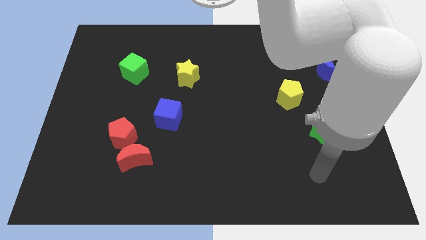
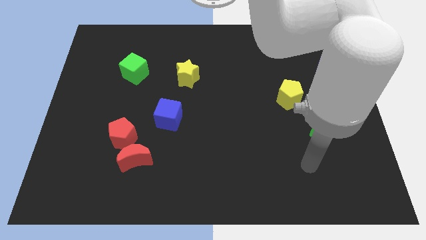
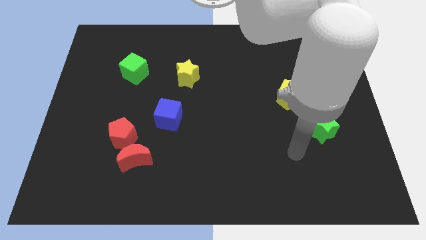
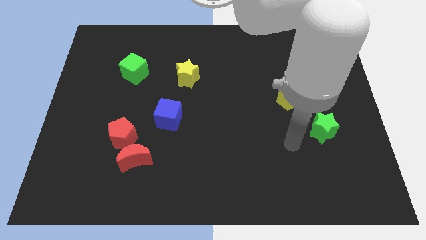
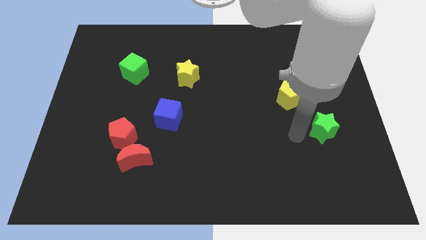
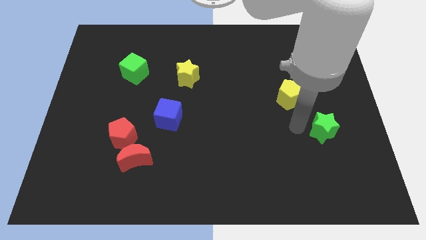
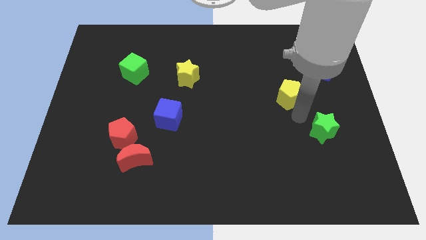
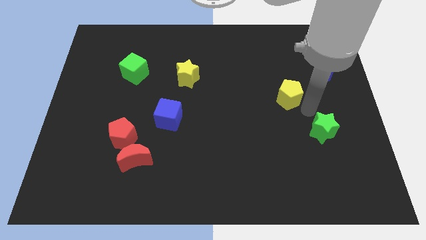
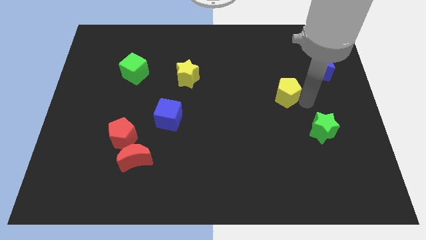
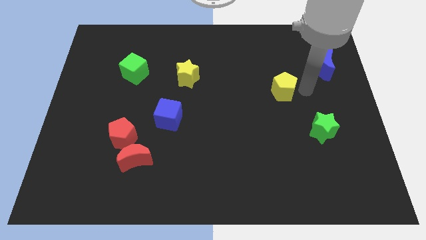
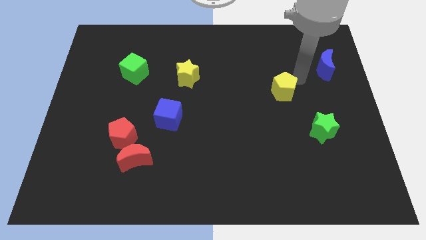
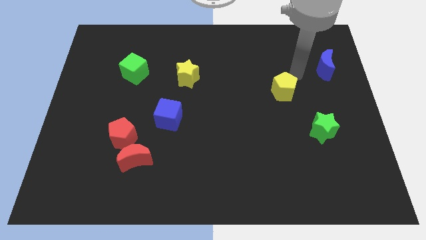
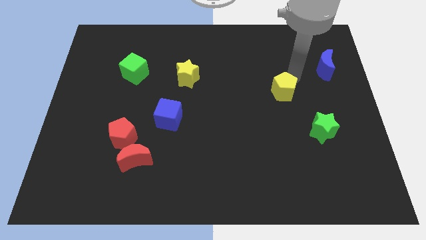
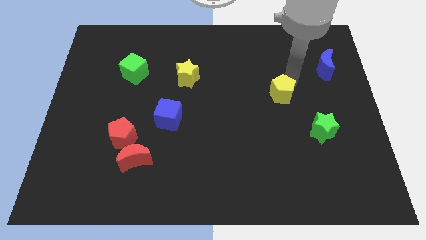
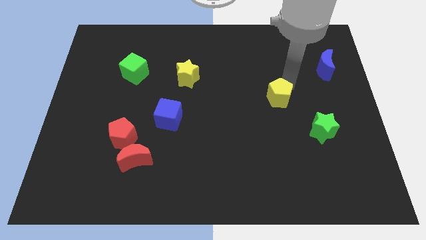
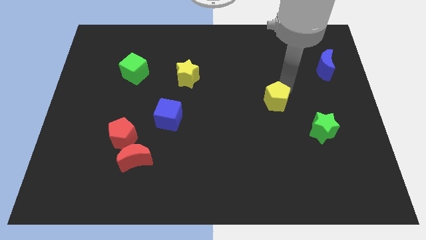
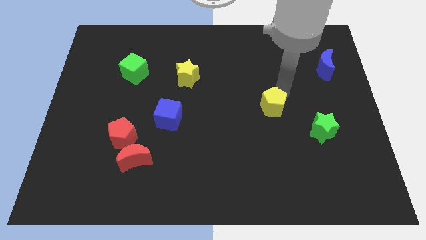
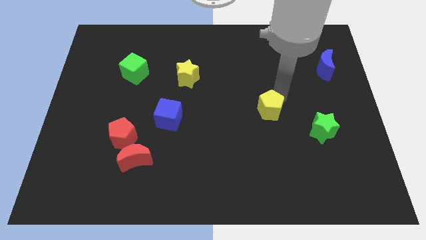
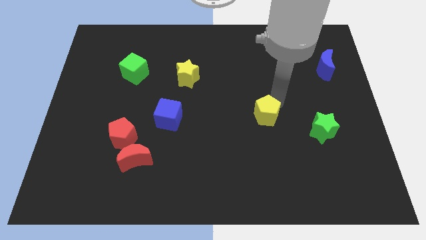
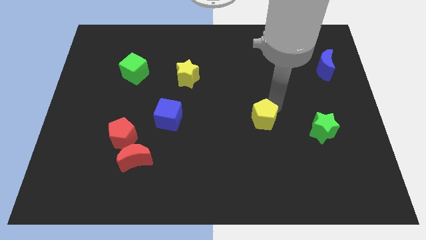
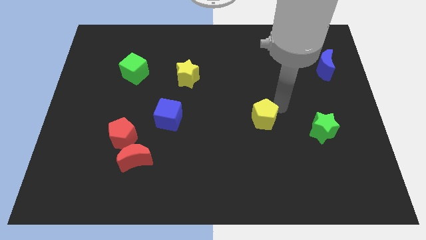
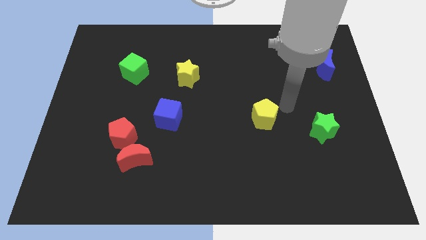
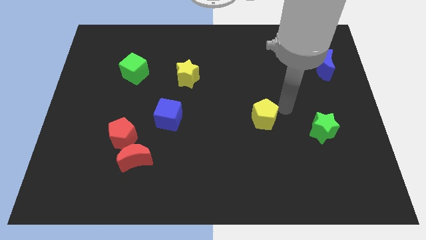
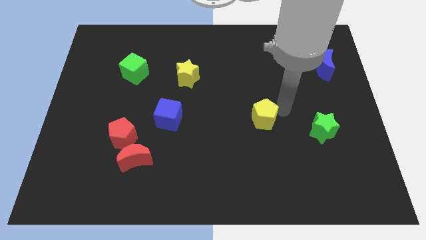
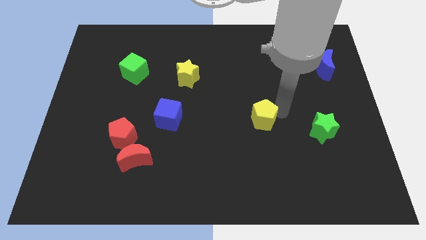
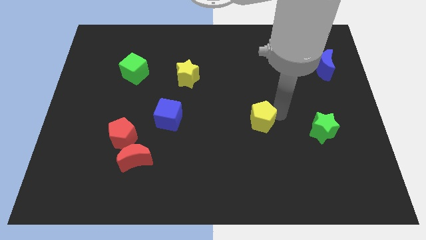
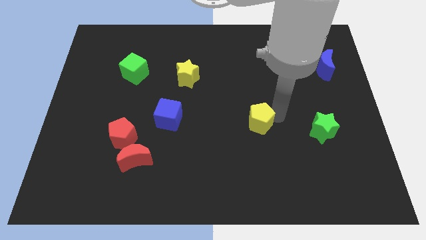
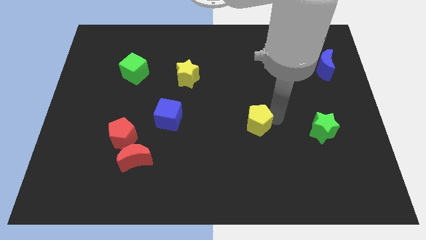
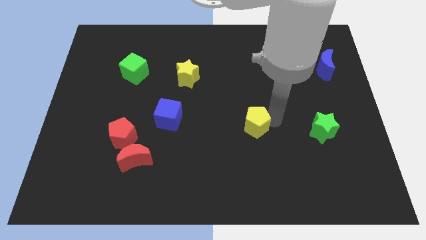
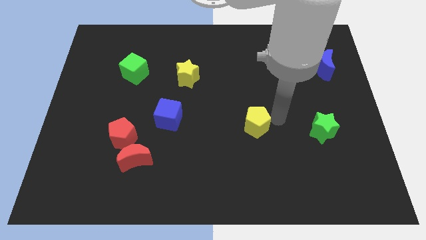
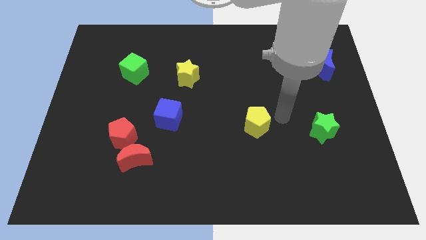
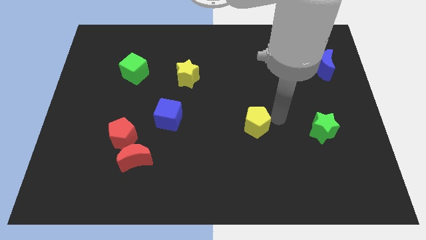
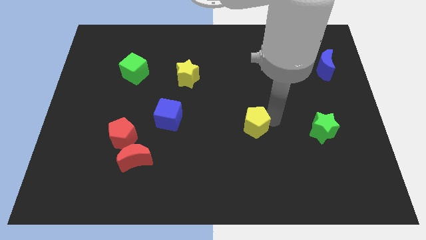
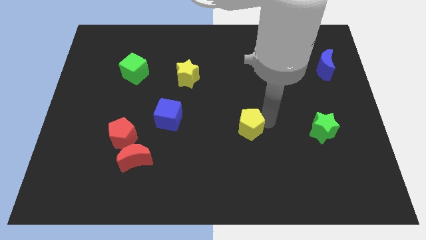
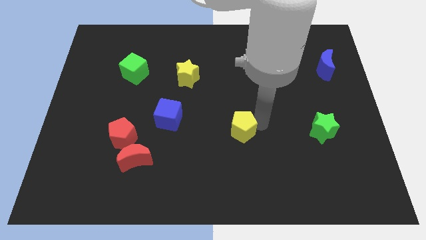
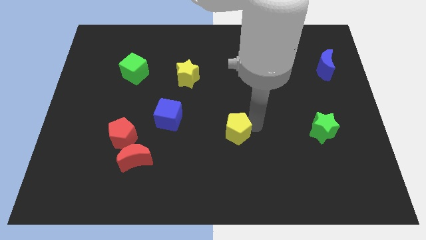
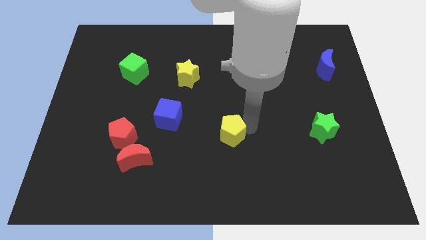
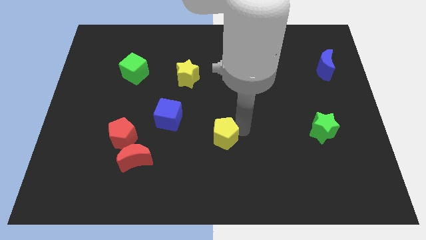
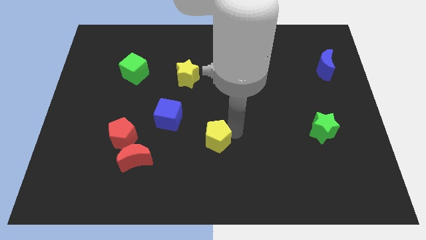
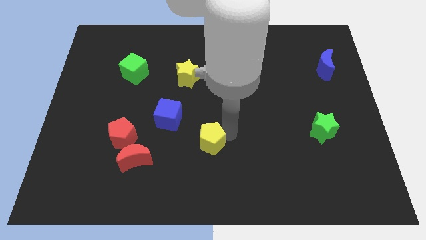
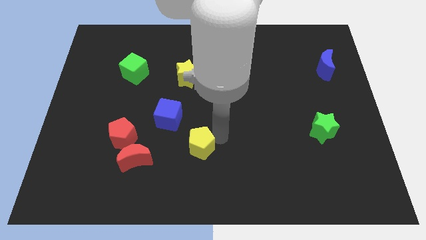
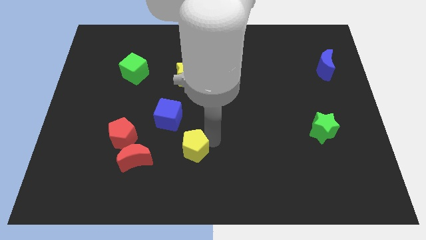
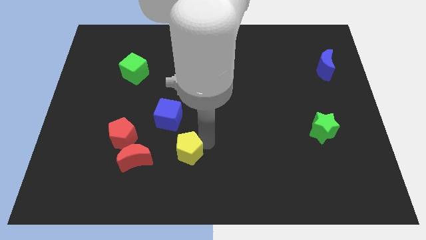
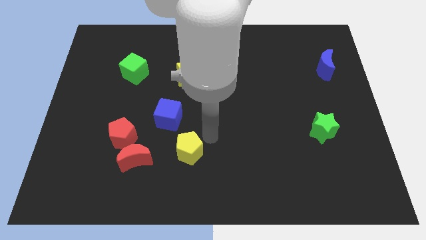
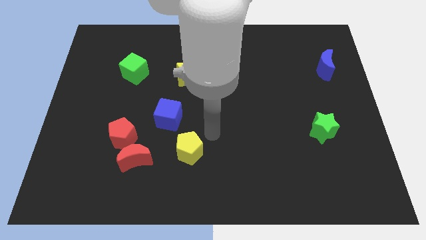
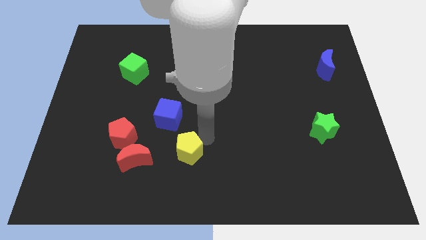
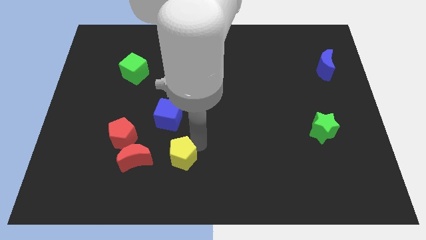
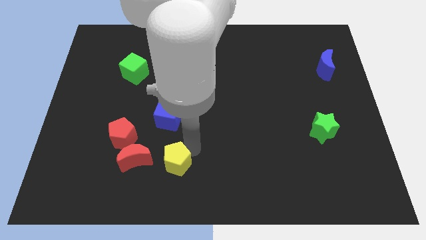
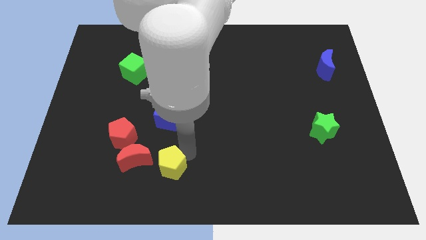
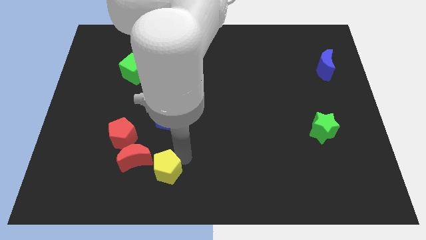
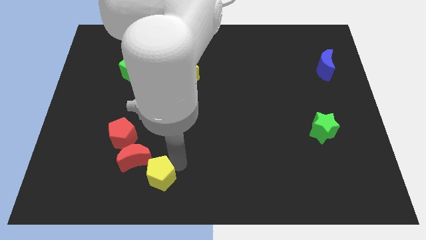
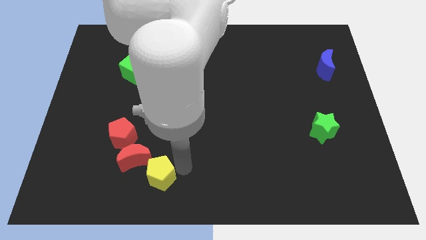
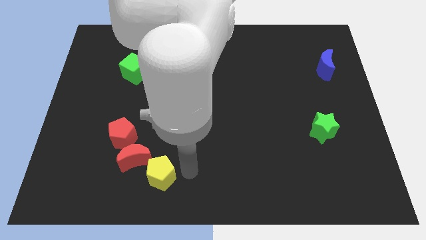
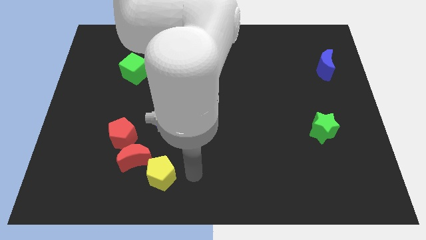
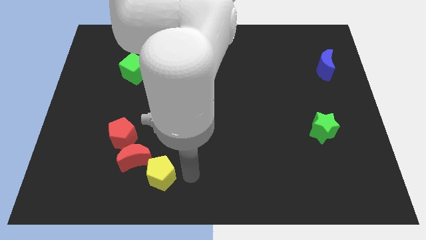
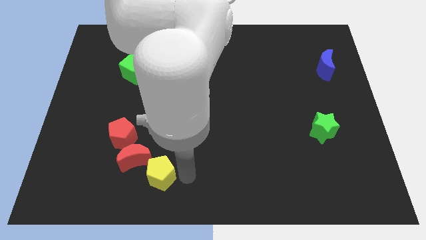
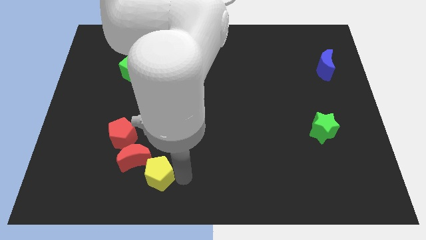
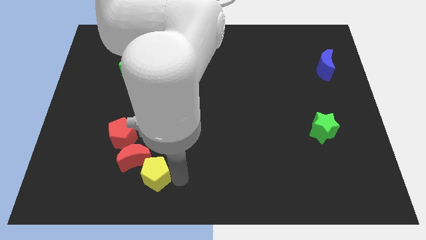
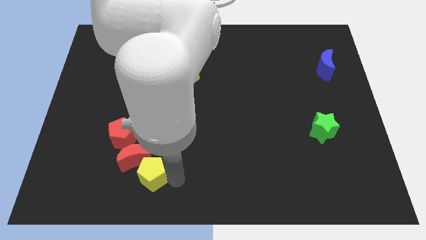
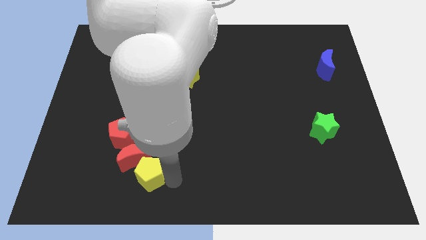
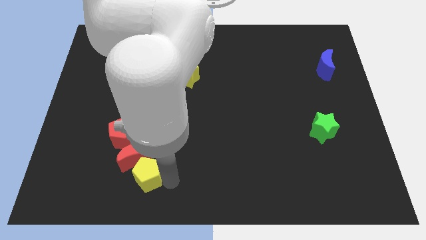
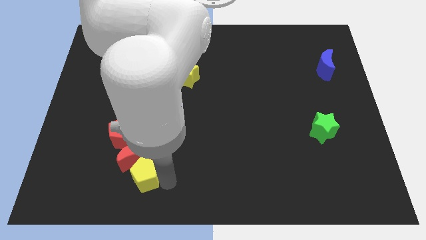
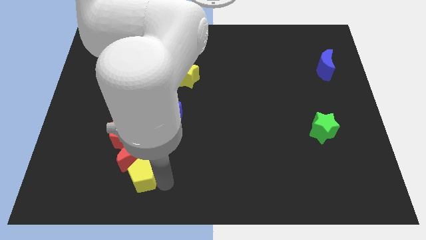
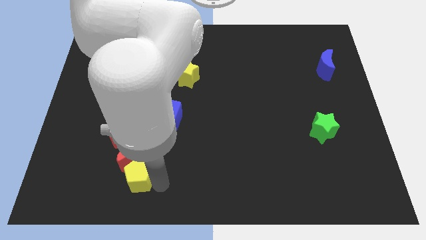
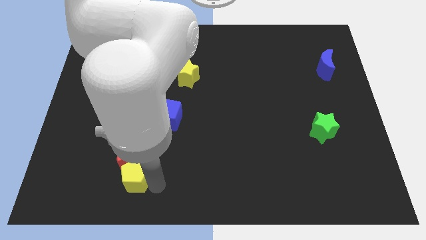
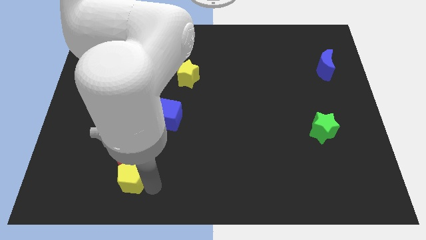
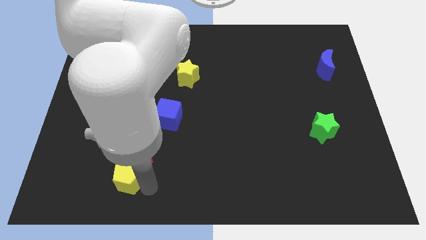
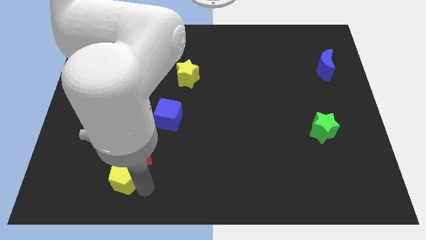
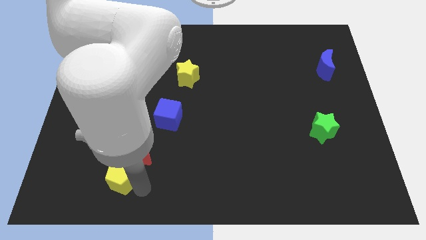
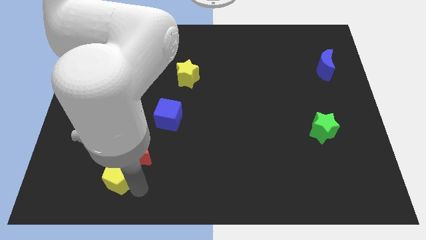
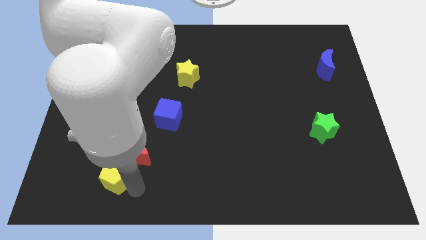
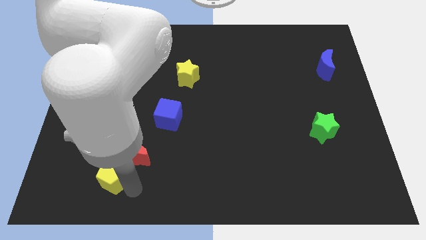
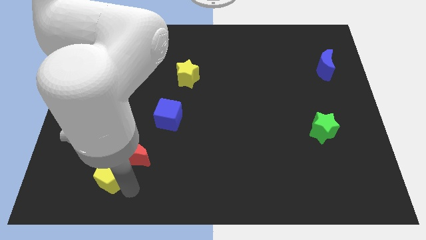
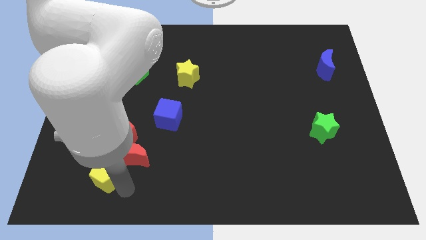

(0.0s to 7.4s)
slide the yellow pentagon to the left of the red moon

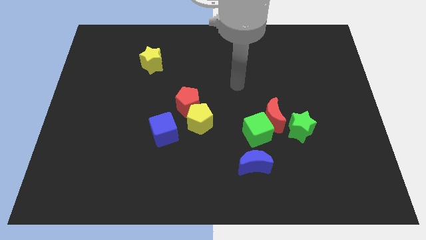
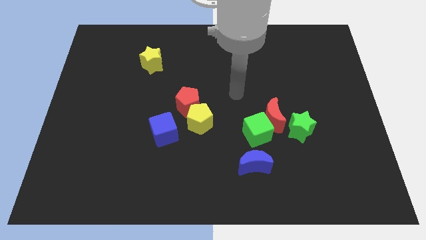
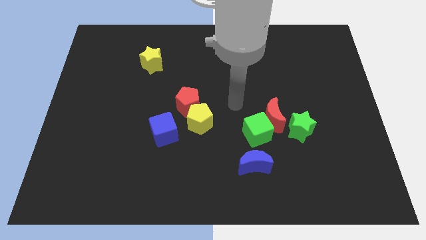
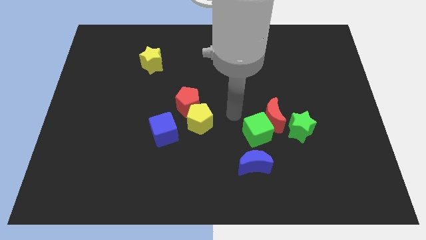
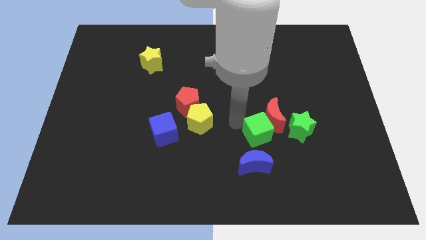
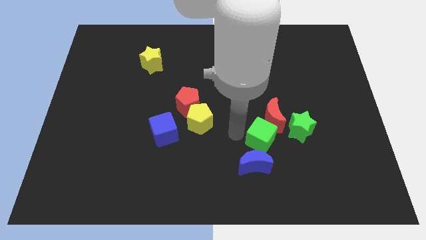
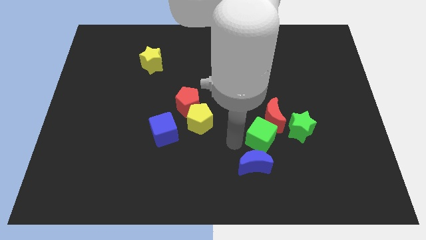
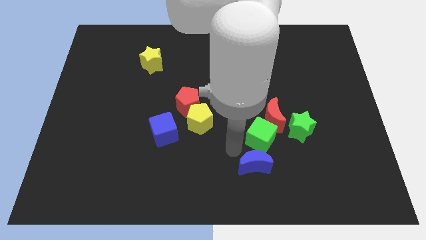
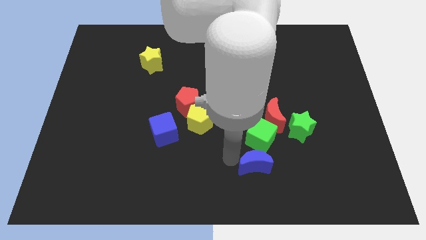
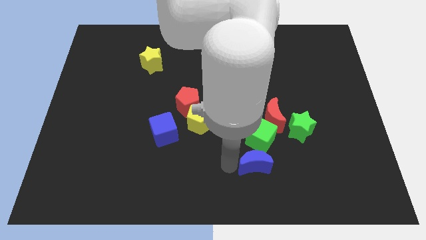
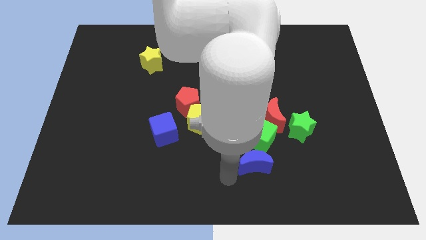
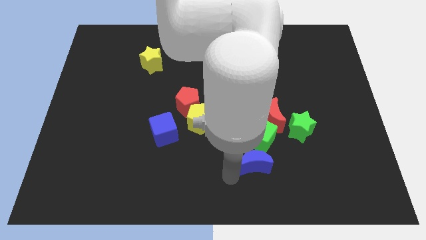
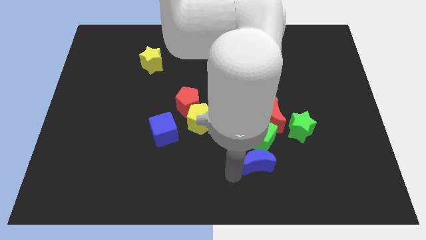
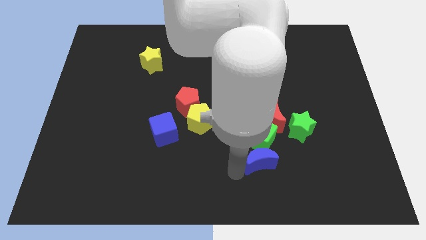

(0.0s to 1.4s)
push the blue moon diagonally down and to the left of the green star
